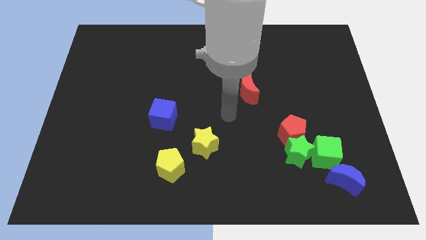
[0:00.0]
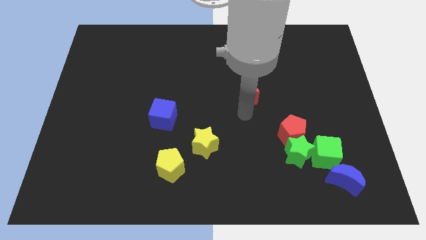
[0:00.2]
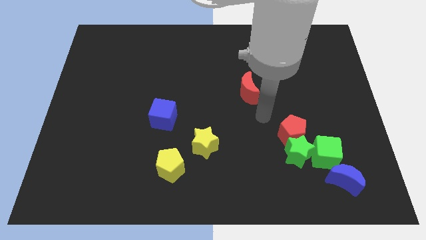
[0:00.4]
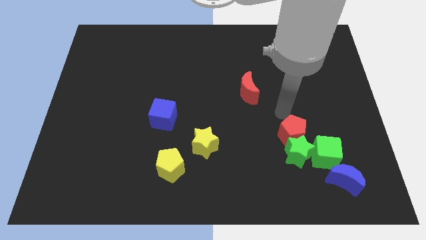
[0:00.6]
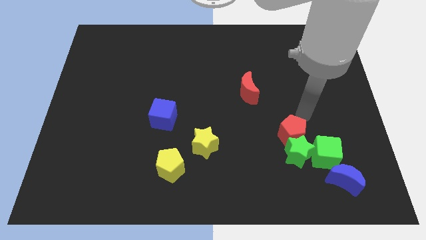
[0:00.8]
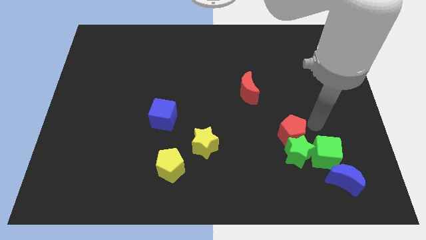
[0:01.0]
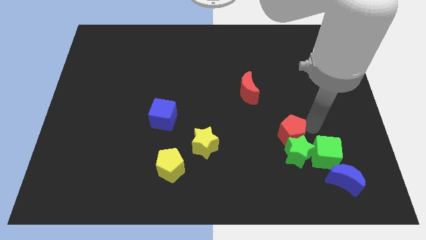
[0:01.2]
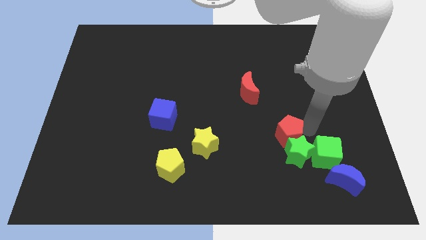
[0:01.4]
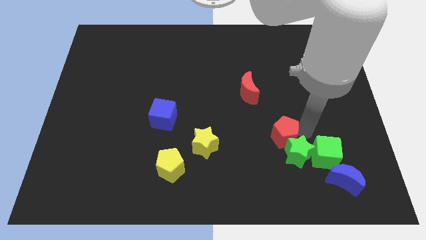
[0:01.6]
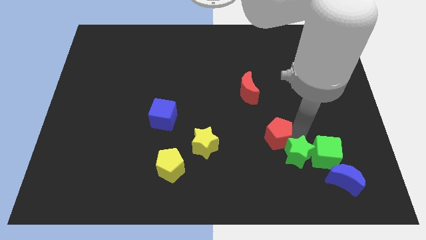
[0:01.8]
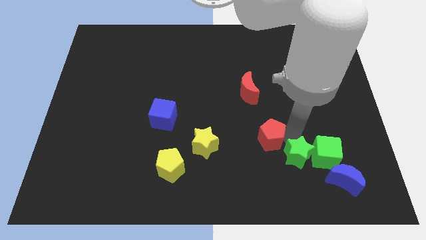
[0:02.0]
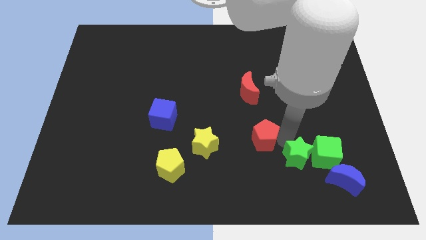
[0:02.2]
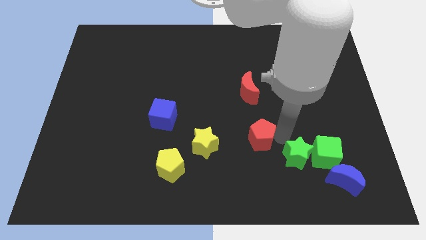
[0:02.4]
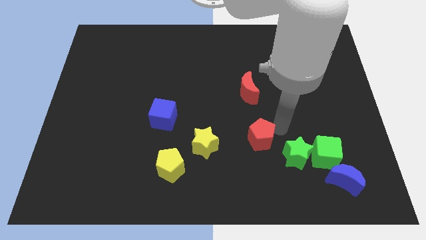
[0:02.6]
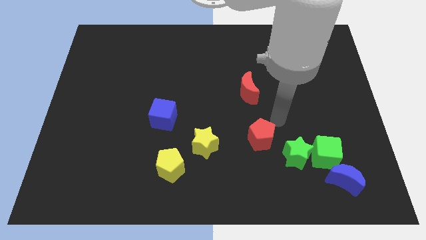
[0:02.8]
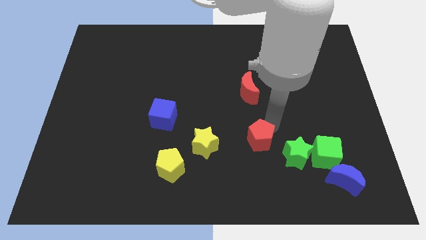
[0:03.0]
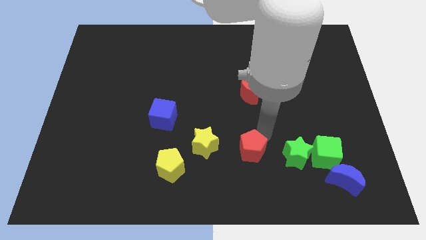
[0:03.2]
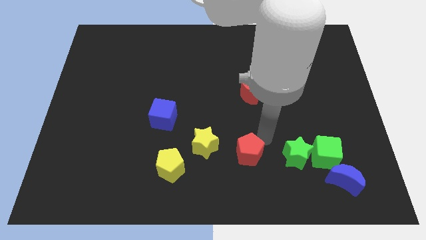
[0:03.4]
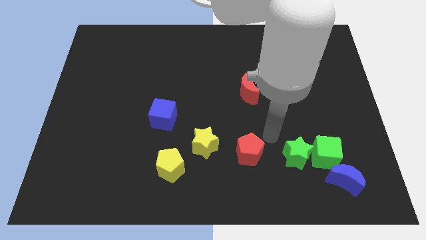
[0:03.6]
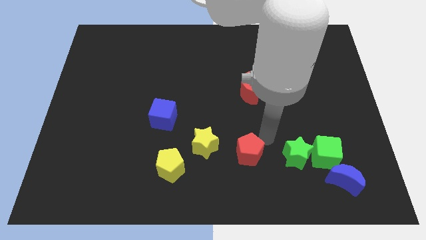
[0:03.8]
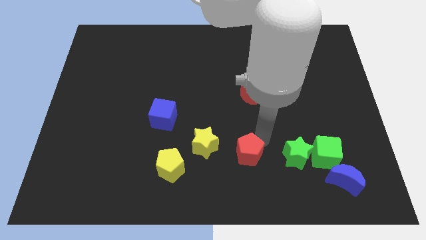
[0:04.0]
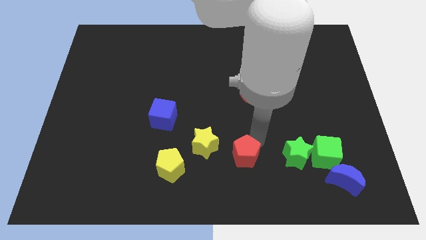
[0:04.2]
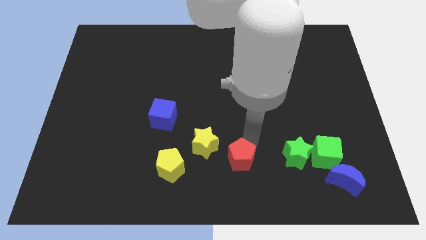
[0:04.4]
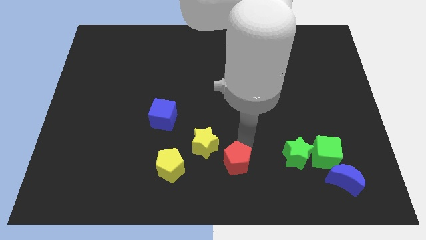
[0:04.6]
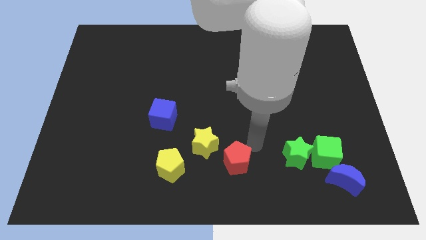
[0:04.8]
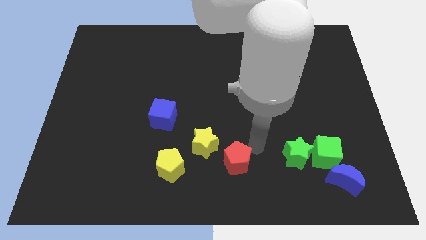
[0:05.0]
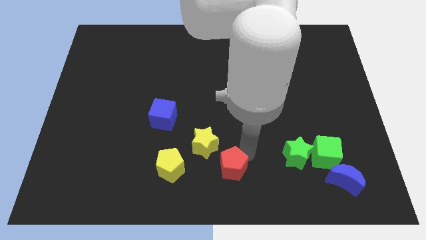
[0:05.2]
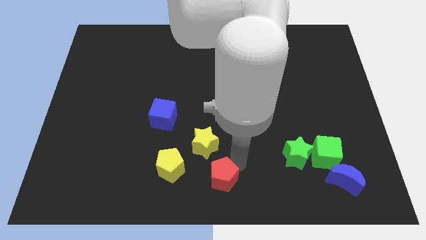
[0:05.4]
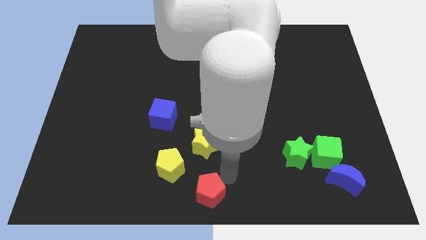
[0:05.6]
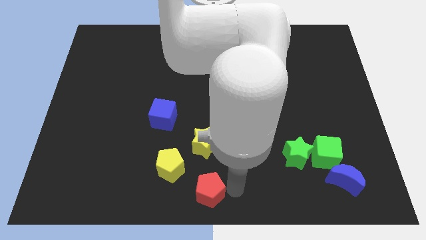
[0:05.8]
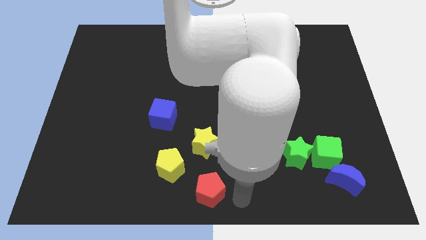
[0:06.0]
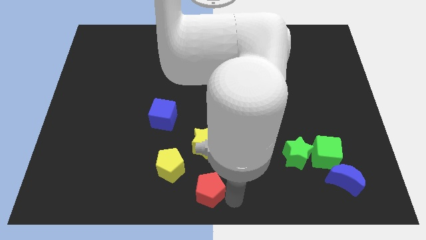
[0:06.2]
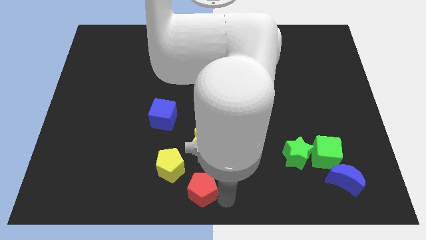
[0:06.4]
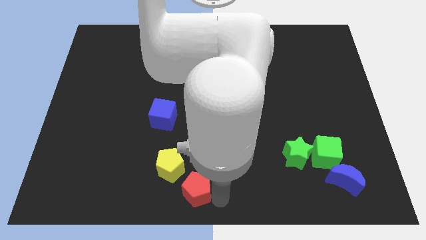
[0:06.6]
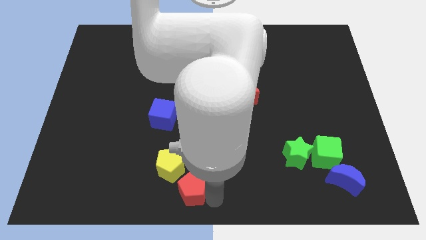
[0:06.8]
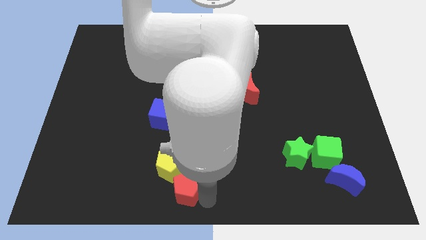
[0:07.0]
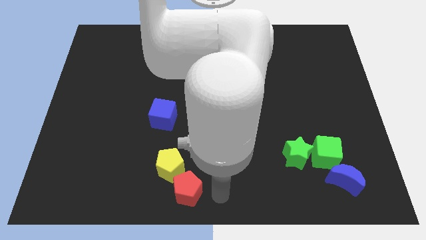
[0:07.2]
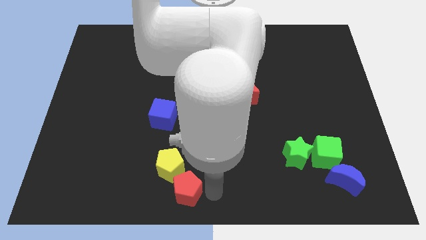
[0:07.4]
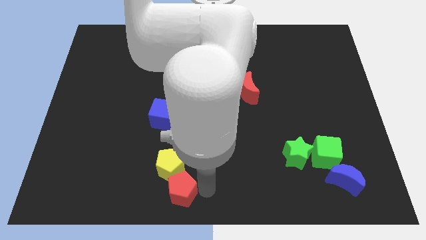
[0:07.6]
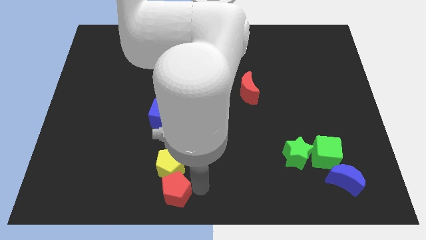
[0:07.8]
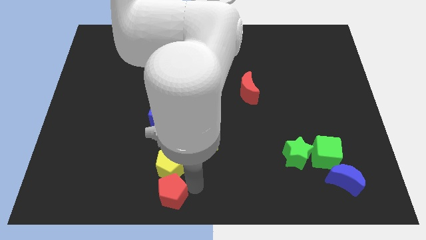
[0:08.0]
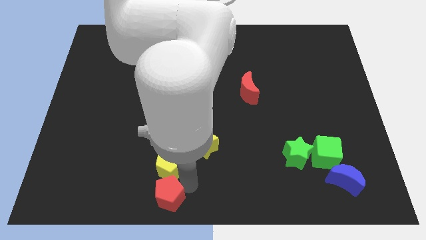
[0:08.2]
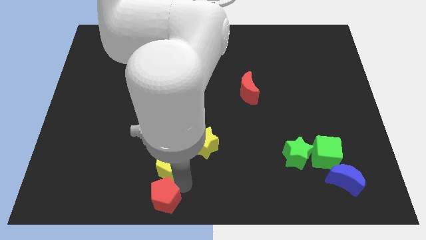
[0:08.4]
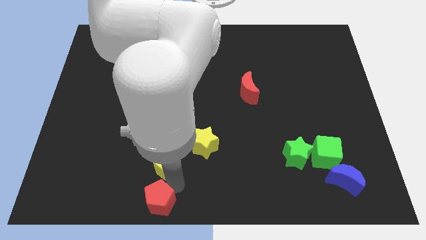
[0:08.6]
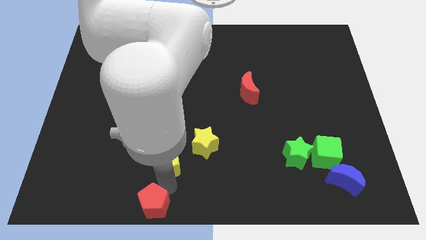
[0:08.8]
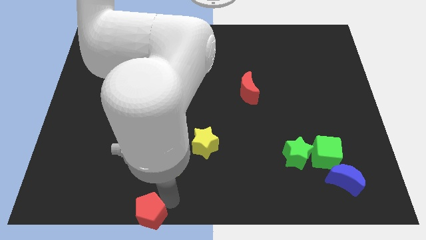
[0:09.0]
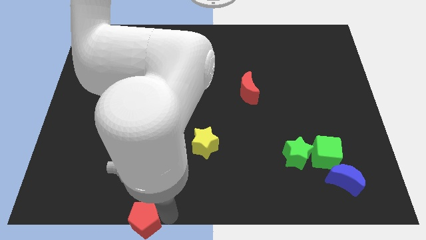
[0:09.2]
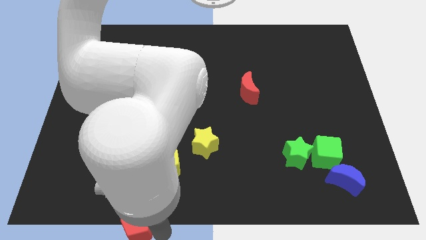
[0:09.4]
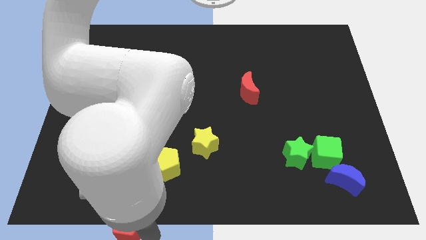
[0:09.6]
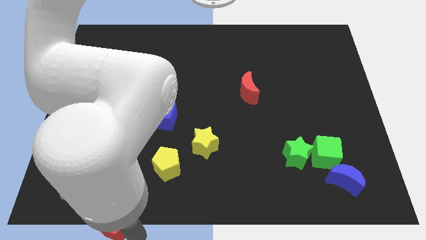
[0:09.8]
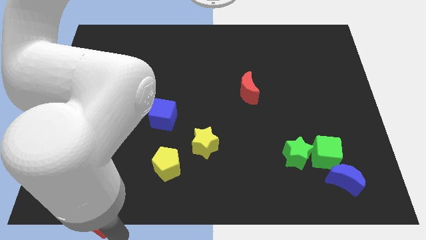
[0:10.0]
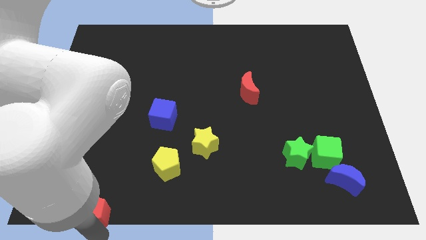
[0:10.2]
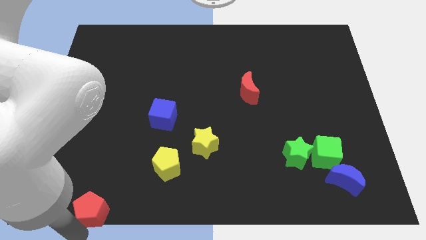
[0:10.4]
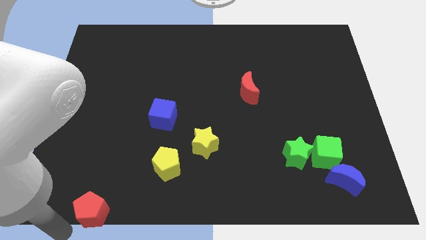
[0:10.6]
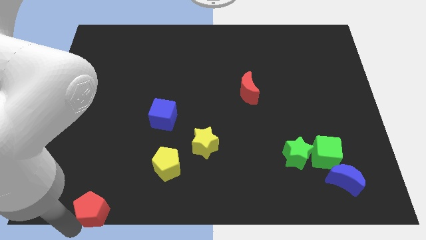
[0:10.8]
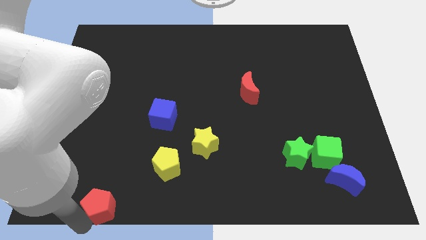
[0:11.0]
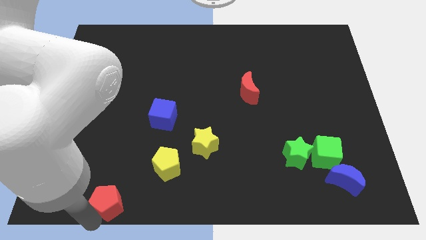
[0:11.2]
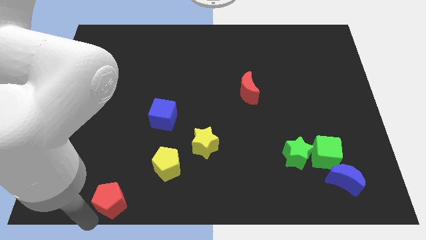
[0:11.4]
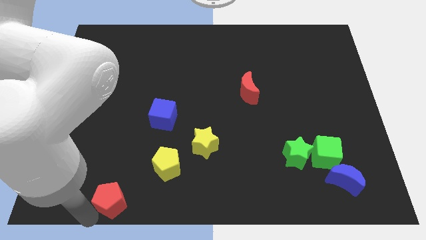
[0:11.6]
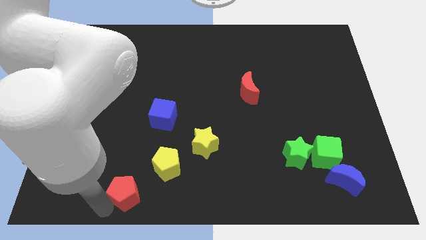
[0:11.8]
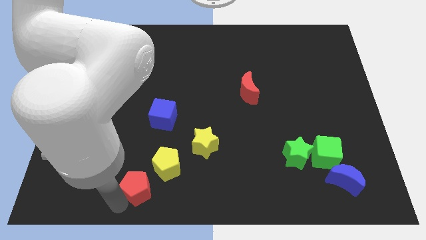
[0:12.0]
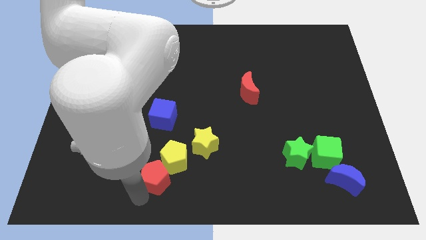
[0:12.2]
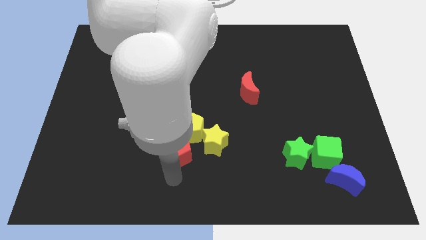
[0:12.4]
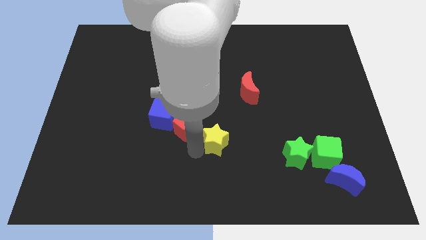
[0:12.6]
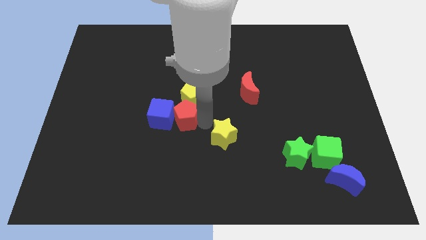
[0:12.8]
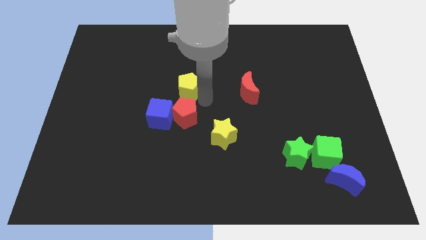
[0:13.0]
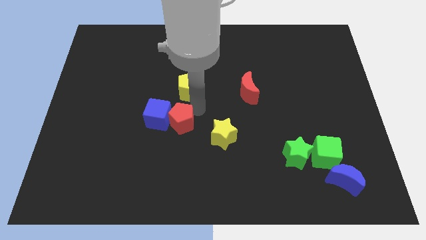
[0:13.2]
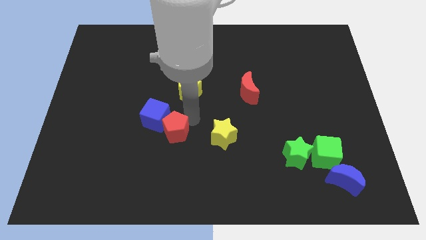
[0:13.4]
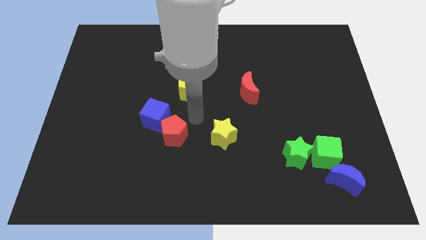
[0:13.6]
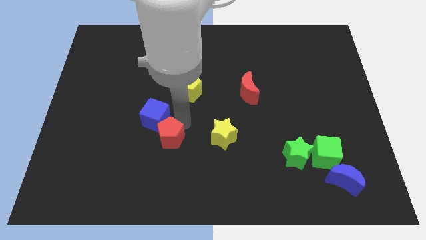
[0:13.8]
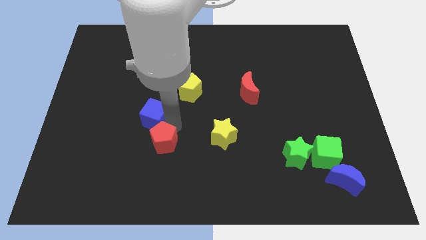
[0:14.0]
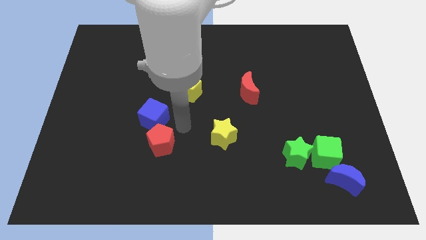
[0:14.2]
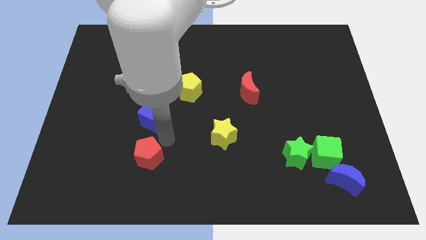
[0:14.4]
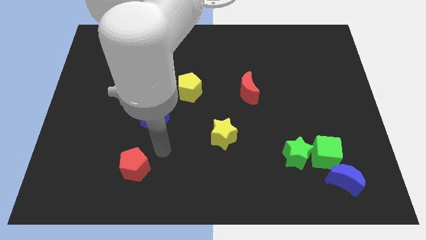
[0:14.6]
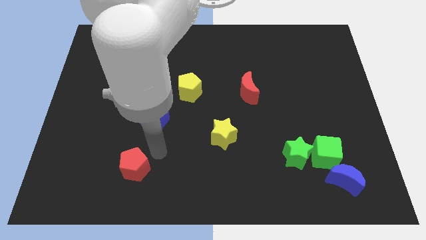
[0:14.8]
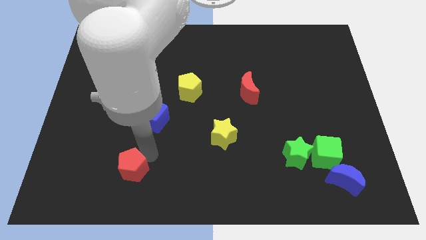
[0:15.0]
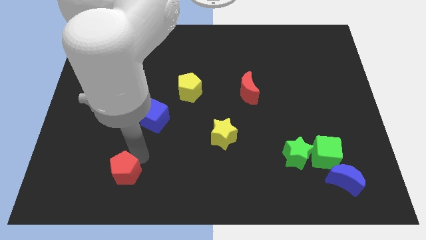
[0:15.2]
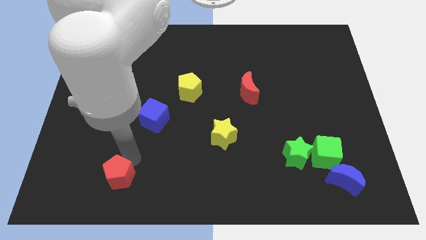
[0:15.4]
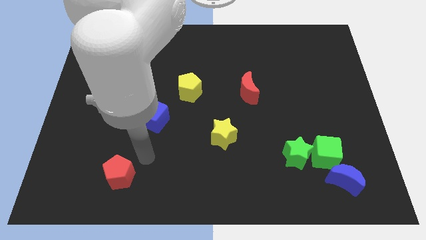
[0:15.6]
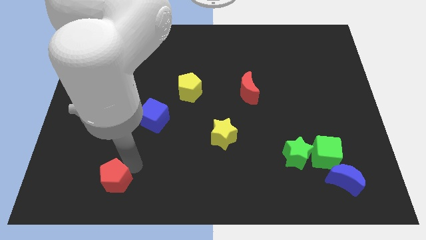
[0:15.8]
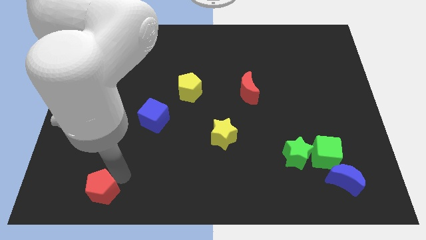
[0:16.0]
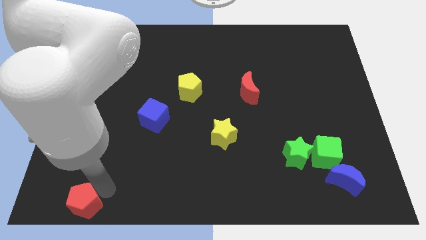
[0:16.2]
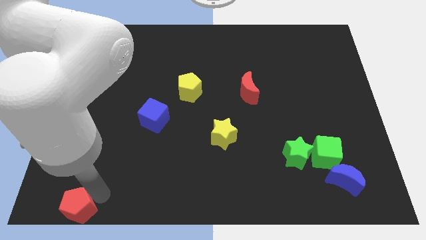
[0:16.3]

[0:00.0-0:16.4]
push the red pentagon to the bottom left of the board
